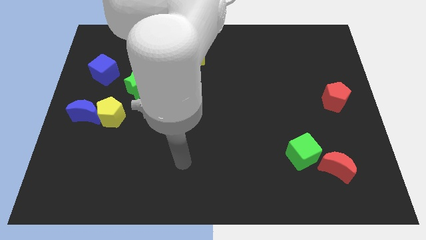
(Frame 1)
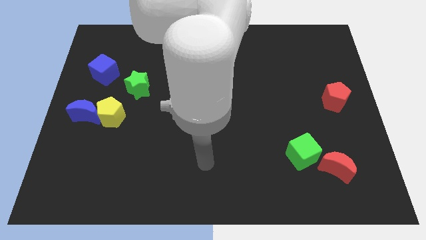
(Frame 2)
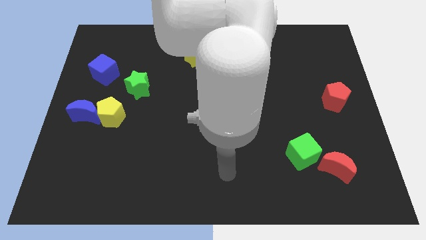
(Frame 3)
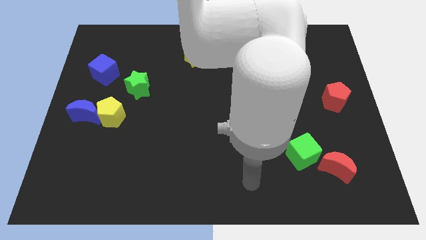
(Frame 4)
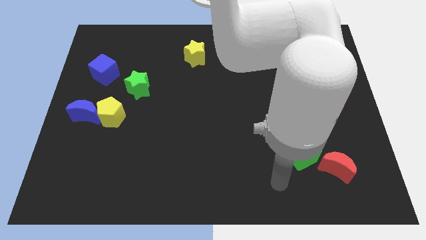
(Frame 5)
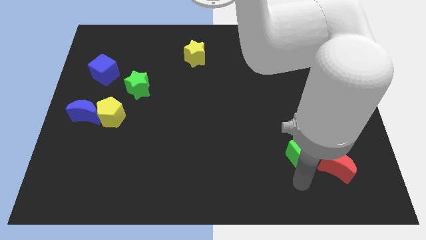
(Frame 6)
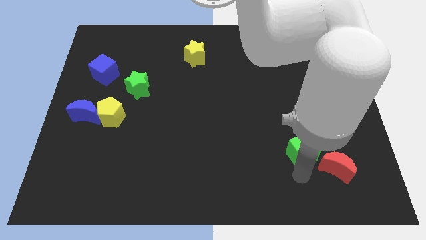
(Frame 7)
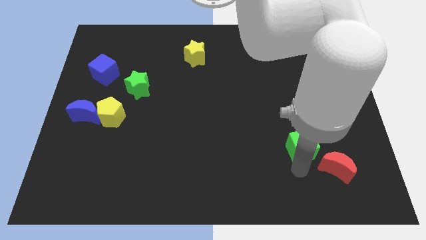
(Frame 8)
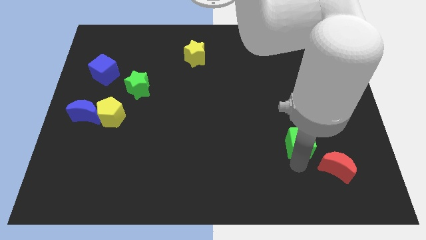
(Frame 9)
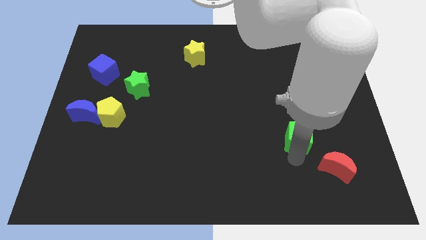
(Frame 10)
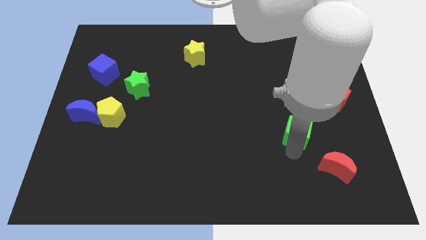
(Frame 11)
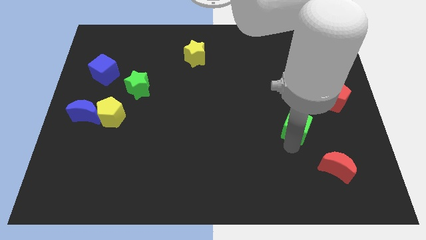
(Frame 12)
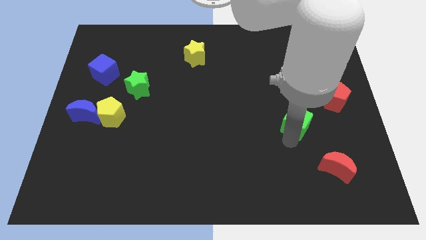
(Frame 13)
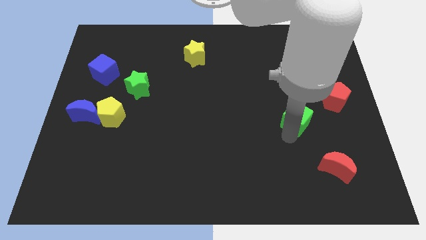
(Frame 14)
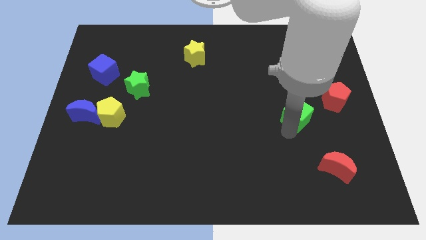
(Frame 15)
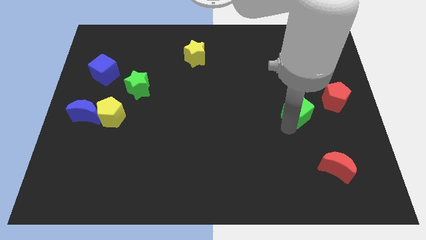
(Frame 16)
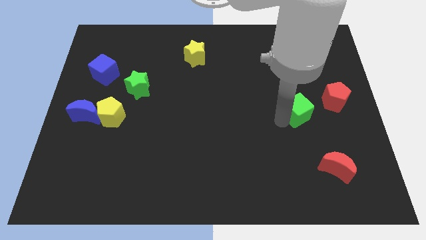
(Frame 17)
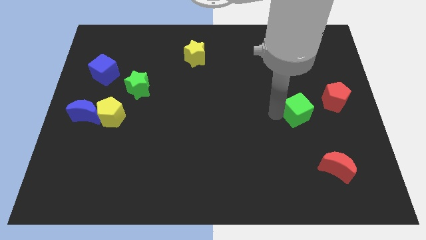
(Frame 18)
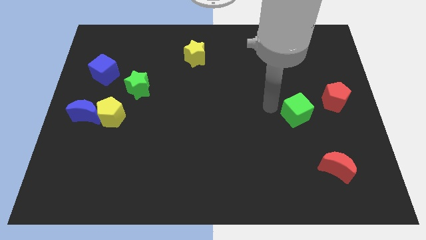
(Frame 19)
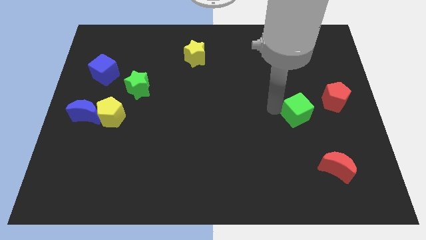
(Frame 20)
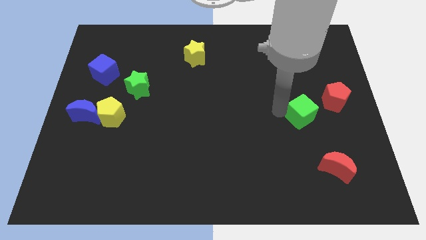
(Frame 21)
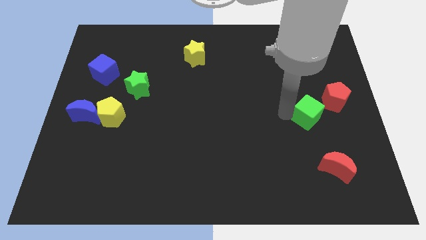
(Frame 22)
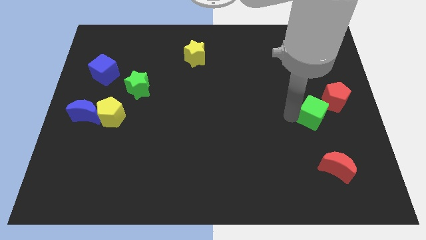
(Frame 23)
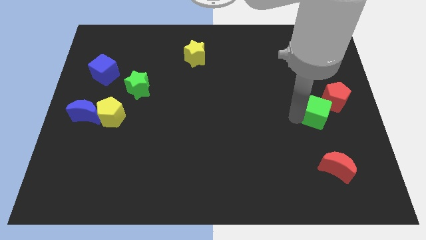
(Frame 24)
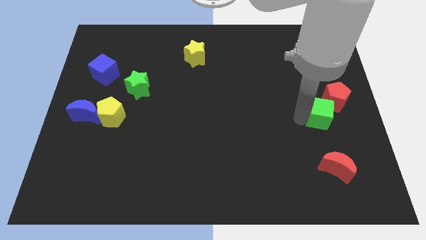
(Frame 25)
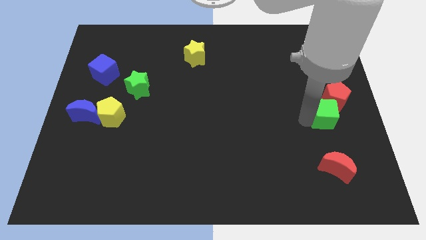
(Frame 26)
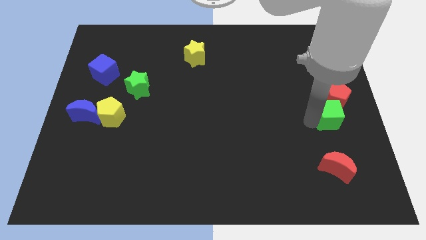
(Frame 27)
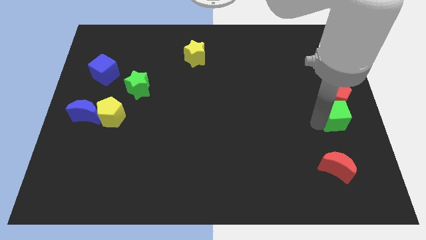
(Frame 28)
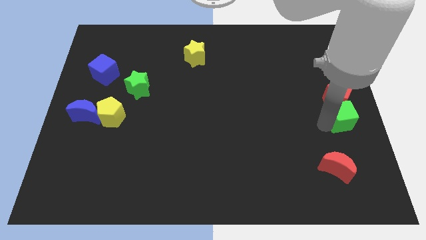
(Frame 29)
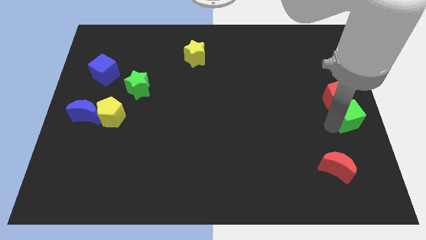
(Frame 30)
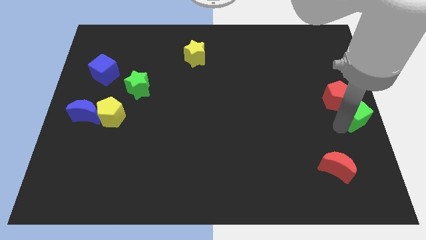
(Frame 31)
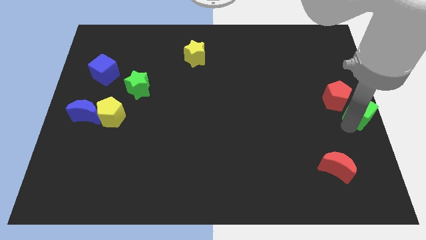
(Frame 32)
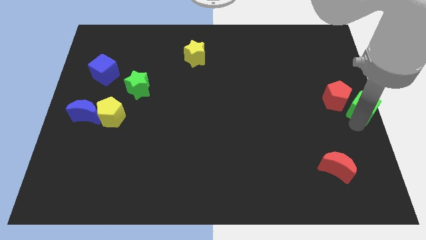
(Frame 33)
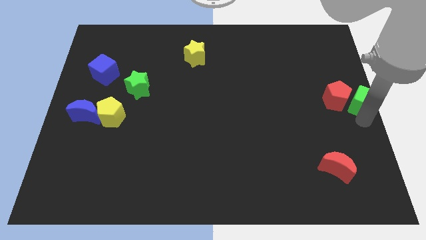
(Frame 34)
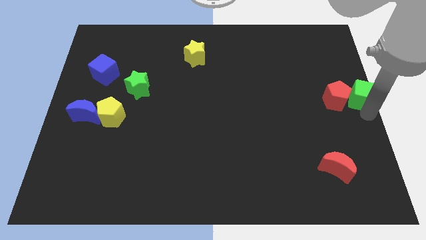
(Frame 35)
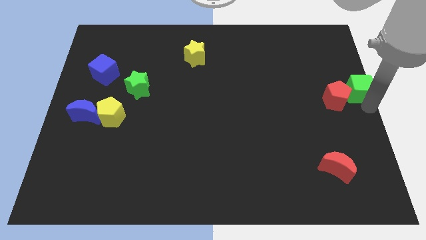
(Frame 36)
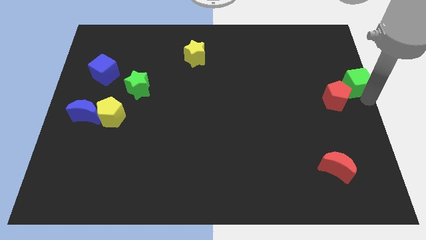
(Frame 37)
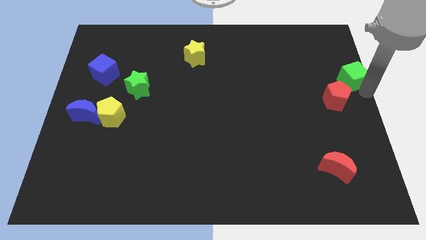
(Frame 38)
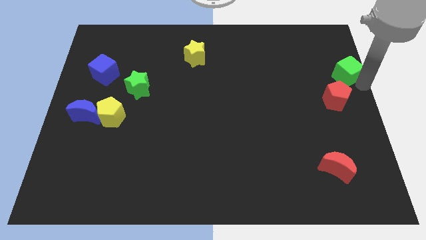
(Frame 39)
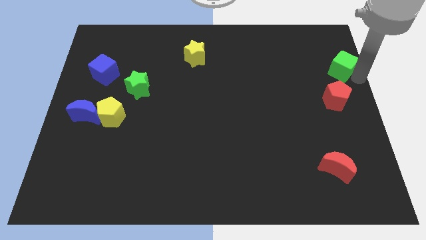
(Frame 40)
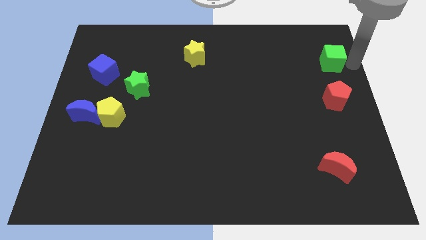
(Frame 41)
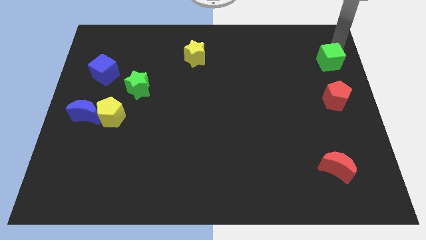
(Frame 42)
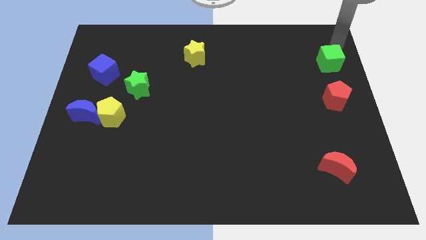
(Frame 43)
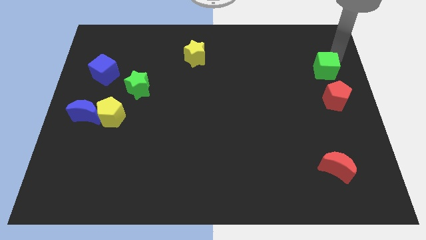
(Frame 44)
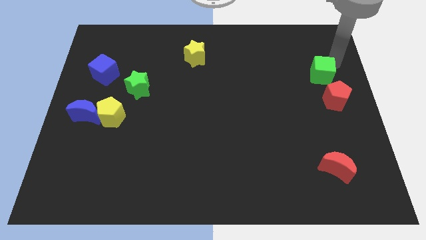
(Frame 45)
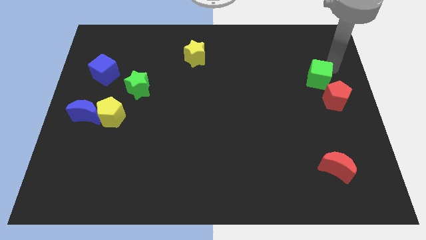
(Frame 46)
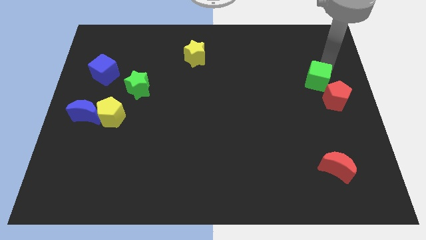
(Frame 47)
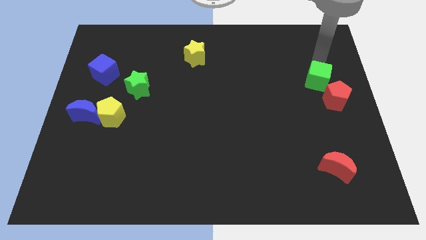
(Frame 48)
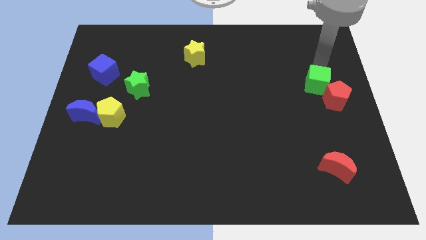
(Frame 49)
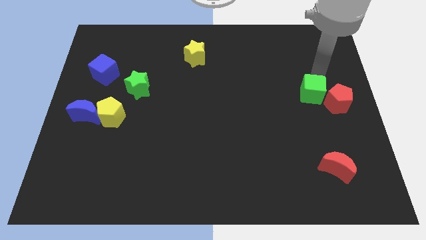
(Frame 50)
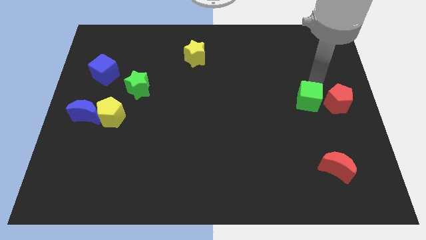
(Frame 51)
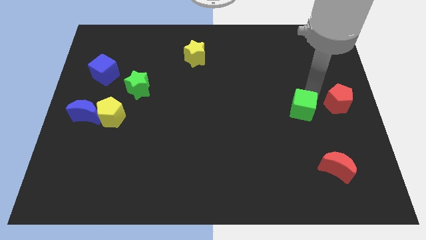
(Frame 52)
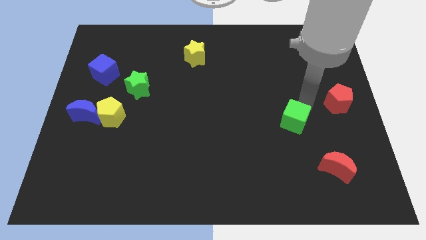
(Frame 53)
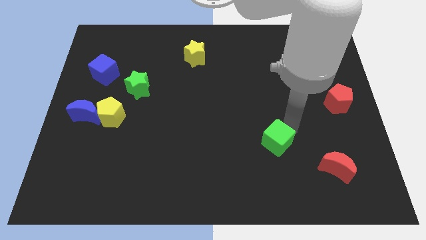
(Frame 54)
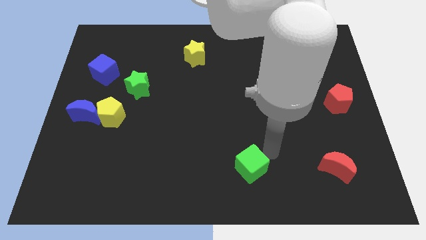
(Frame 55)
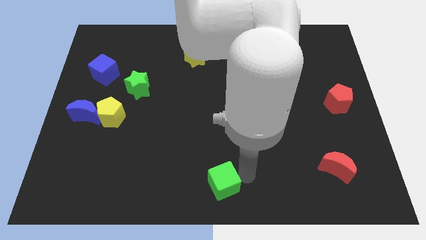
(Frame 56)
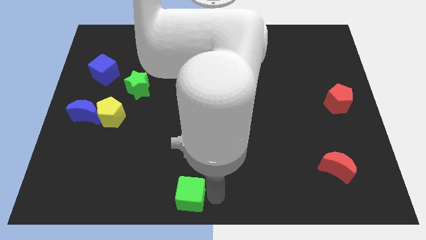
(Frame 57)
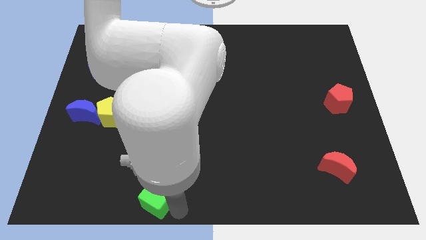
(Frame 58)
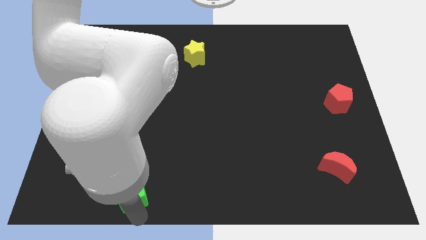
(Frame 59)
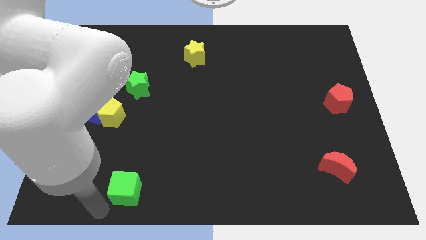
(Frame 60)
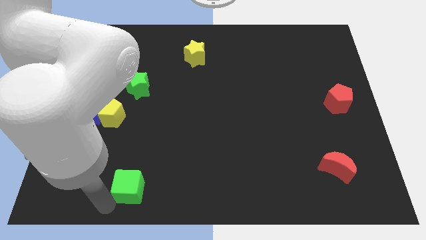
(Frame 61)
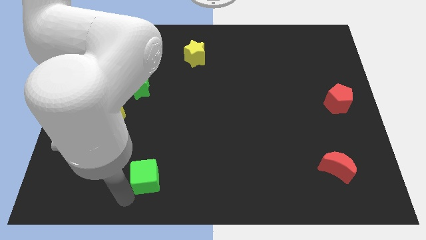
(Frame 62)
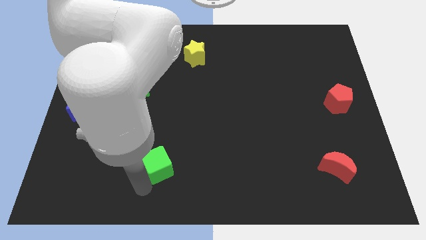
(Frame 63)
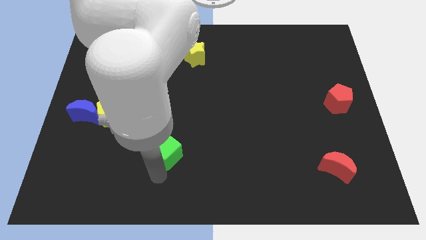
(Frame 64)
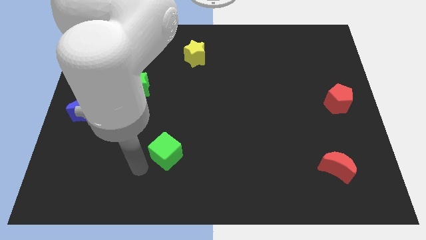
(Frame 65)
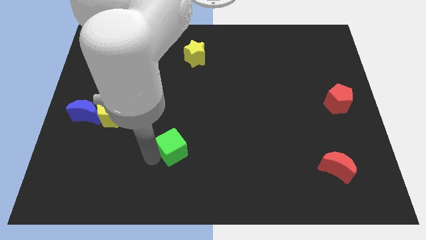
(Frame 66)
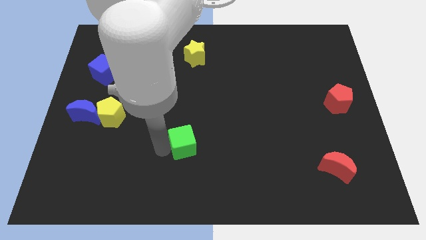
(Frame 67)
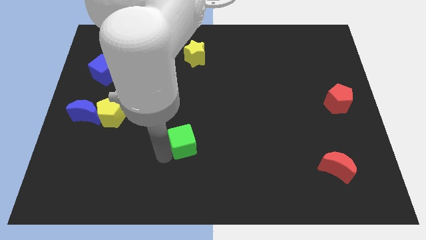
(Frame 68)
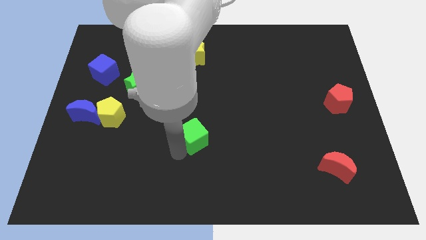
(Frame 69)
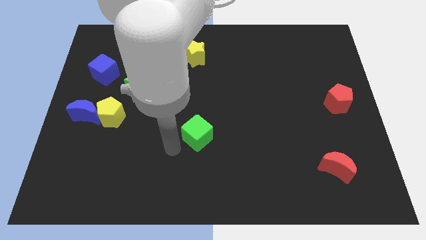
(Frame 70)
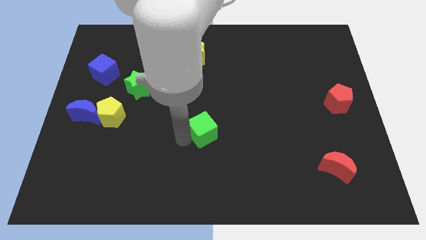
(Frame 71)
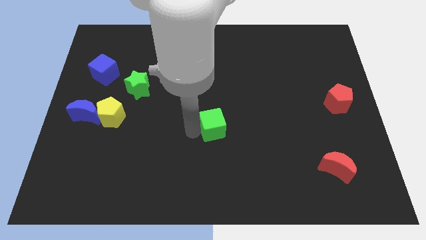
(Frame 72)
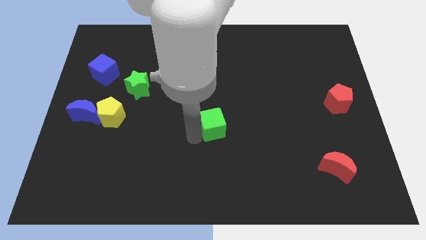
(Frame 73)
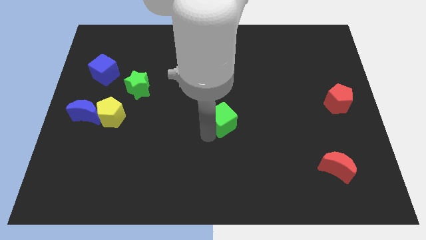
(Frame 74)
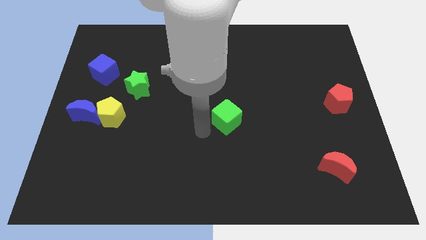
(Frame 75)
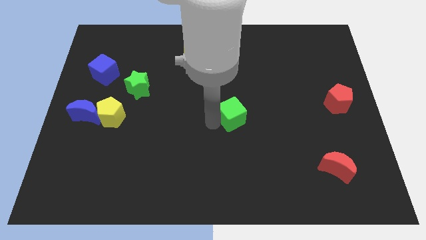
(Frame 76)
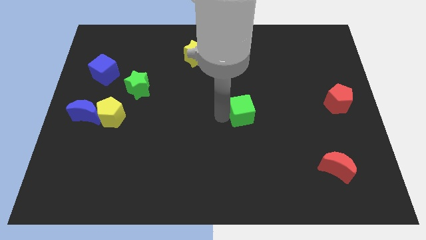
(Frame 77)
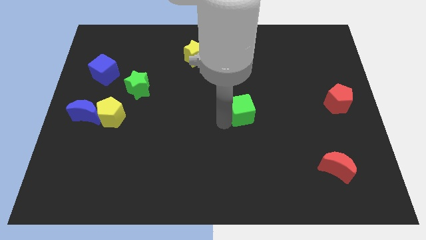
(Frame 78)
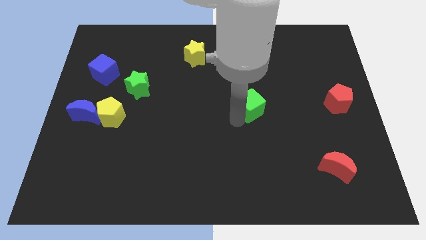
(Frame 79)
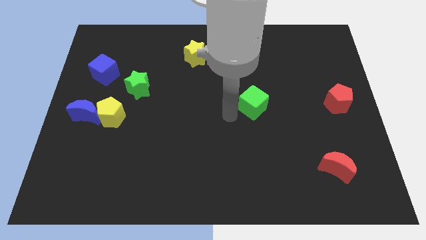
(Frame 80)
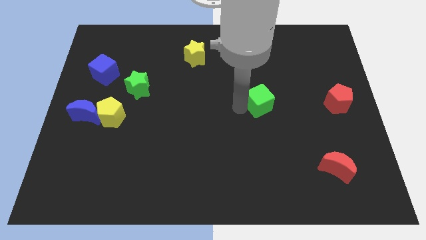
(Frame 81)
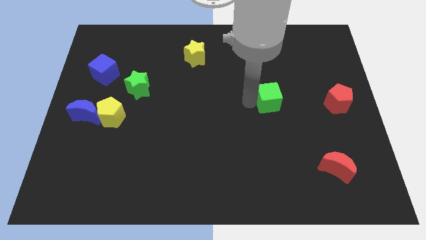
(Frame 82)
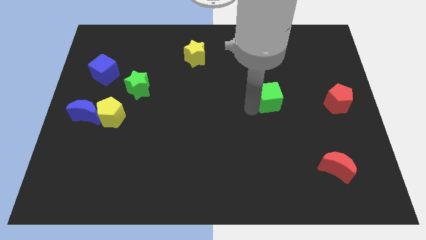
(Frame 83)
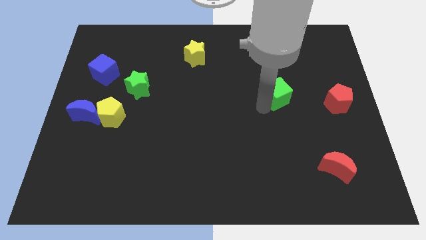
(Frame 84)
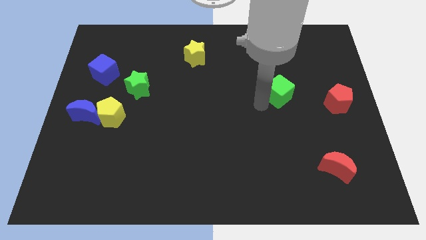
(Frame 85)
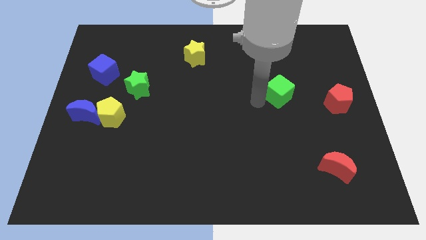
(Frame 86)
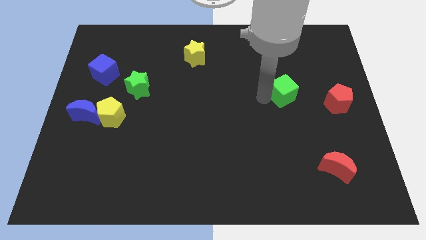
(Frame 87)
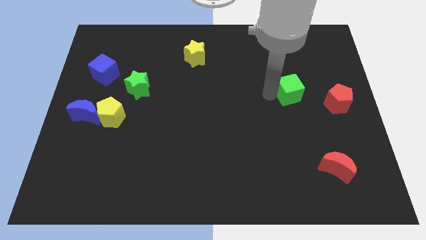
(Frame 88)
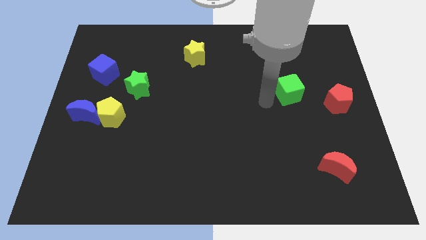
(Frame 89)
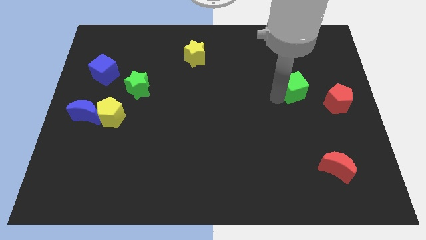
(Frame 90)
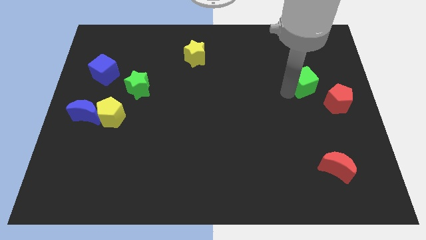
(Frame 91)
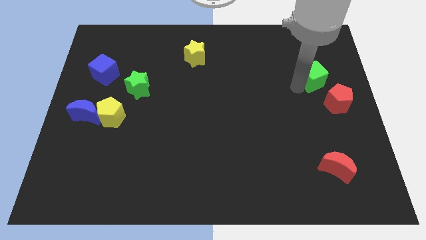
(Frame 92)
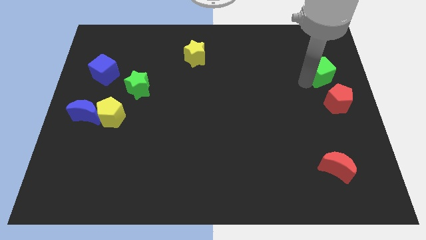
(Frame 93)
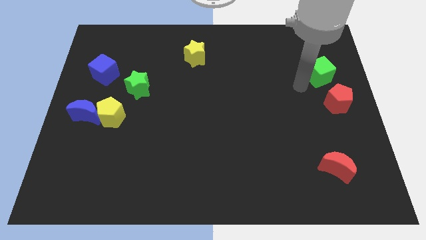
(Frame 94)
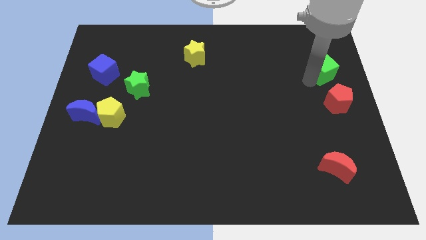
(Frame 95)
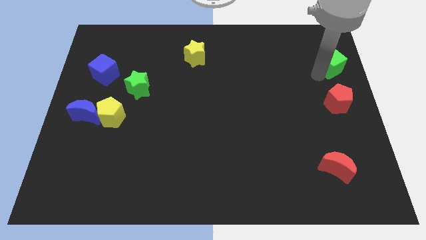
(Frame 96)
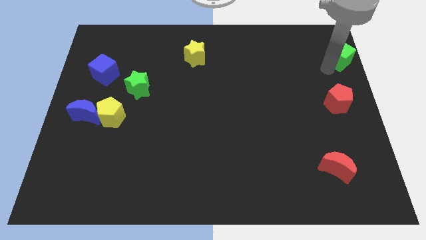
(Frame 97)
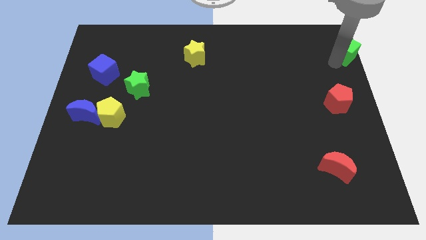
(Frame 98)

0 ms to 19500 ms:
push the green cube to the top right
